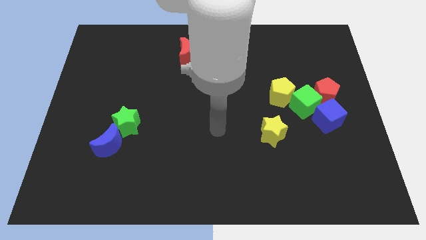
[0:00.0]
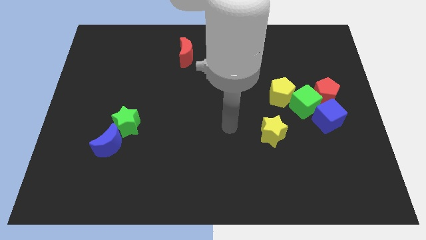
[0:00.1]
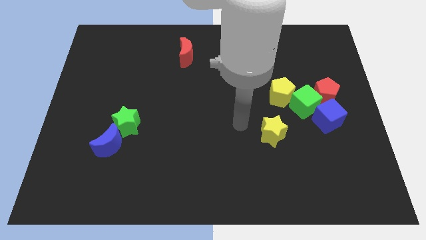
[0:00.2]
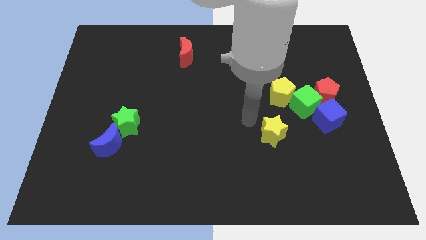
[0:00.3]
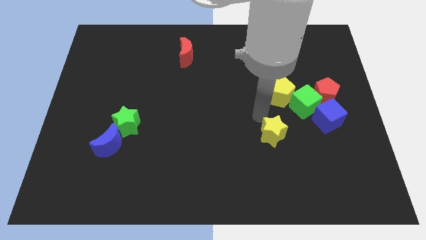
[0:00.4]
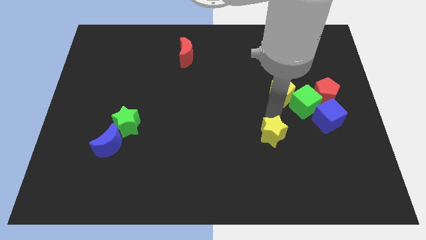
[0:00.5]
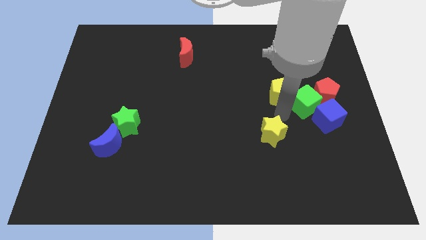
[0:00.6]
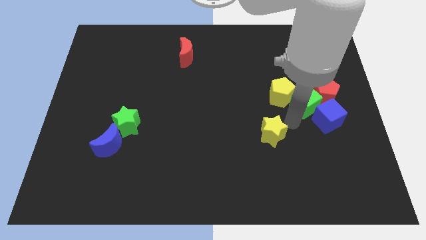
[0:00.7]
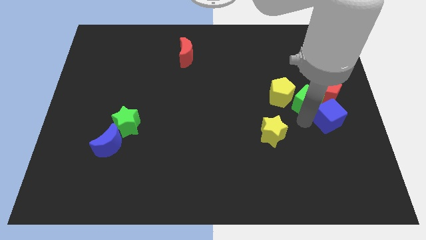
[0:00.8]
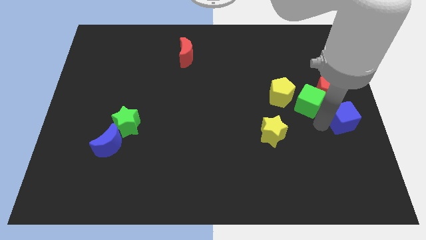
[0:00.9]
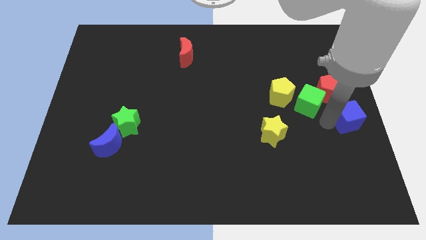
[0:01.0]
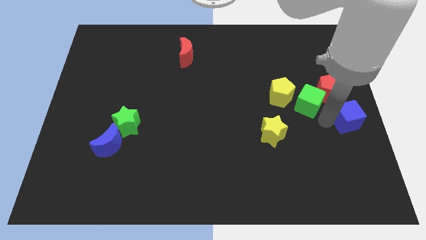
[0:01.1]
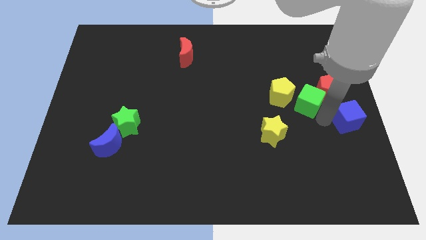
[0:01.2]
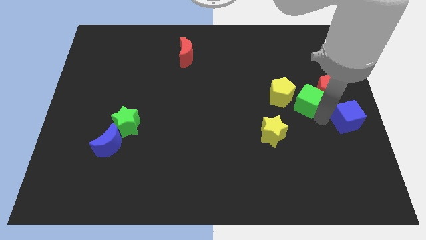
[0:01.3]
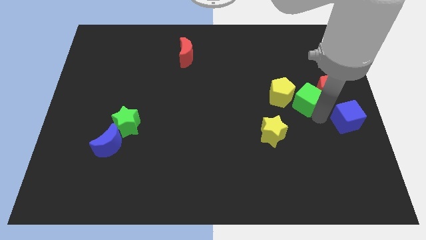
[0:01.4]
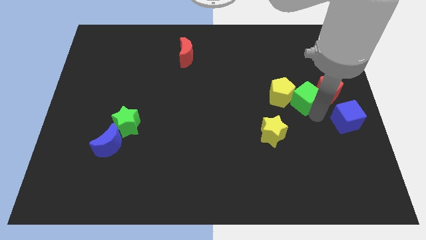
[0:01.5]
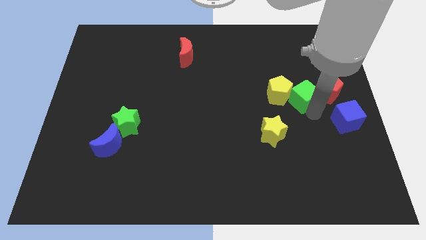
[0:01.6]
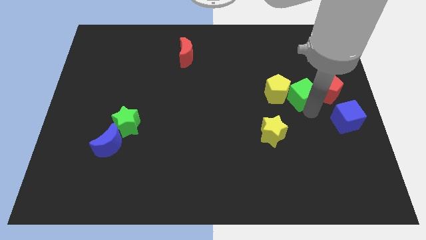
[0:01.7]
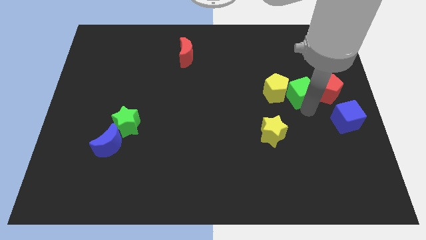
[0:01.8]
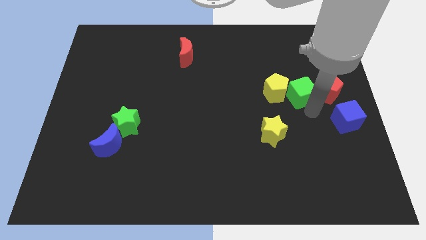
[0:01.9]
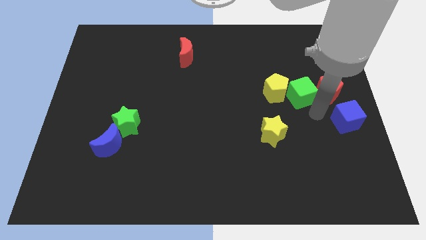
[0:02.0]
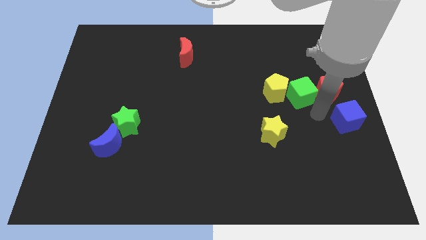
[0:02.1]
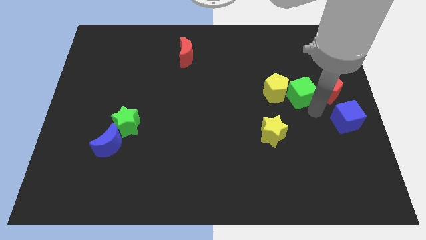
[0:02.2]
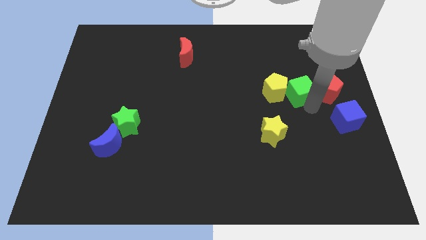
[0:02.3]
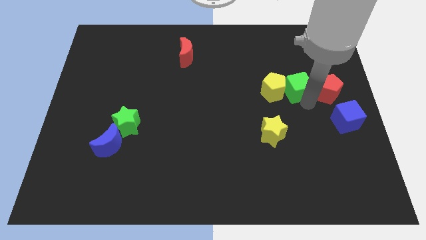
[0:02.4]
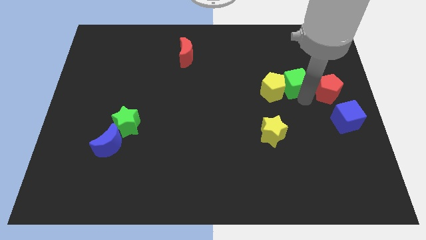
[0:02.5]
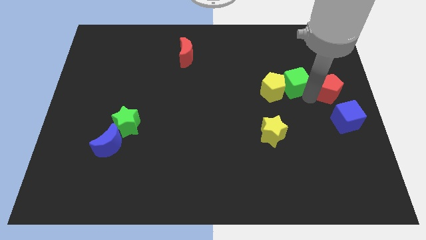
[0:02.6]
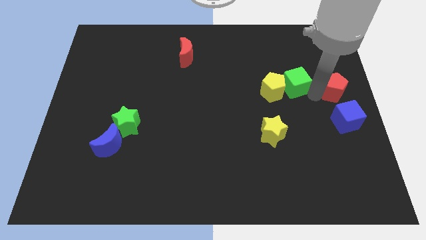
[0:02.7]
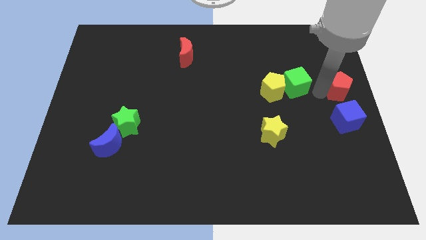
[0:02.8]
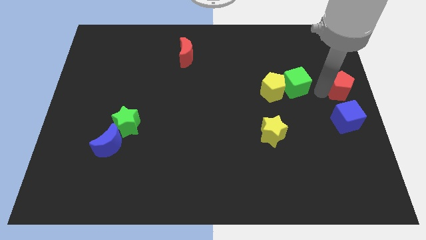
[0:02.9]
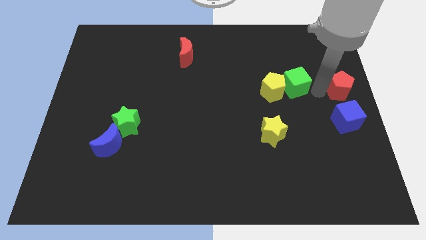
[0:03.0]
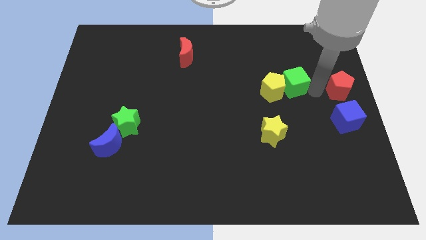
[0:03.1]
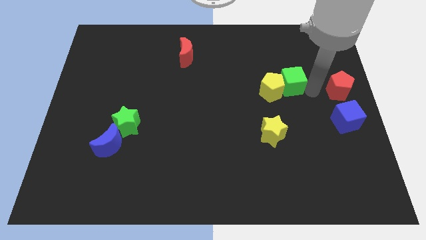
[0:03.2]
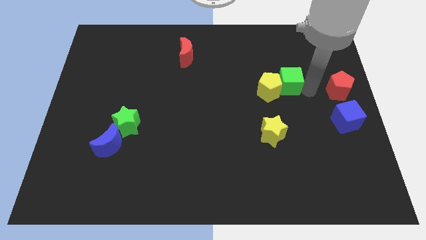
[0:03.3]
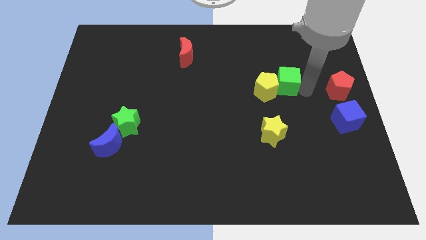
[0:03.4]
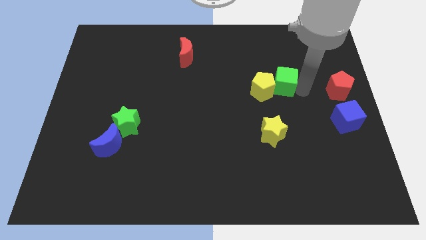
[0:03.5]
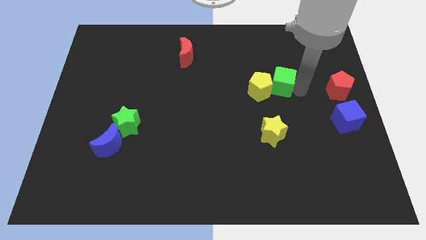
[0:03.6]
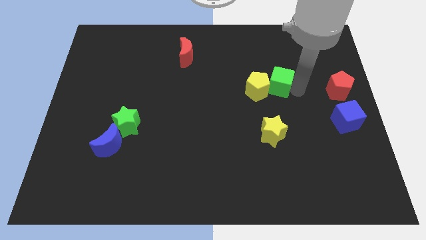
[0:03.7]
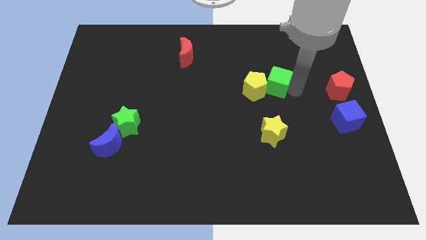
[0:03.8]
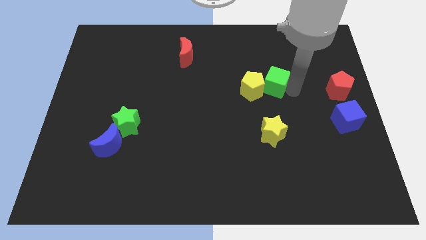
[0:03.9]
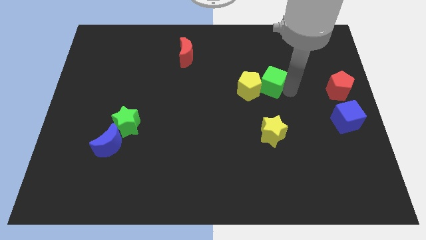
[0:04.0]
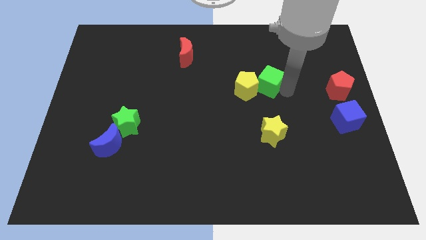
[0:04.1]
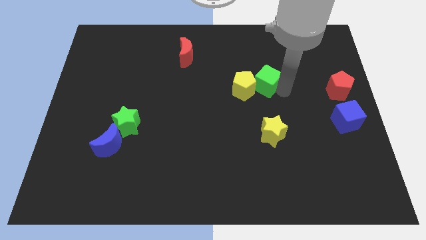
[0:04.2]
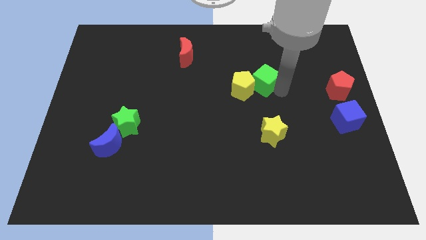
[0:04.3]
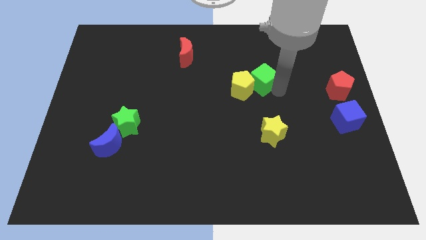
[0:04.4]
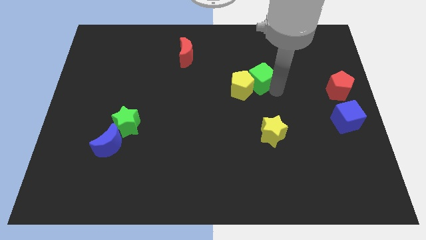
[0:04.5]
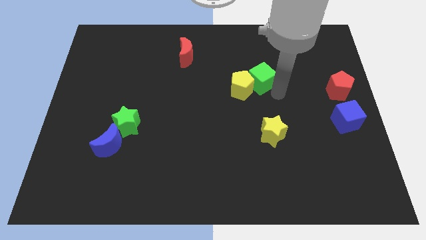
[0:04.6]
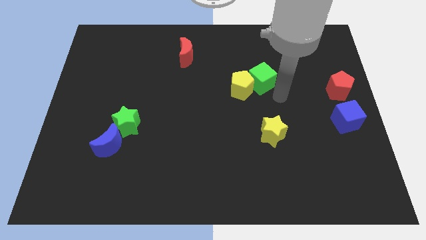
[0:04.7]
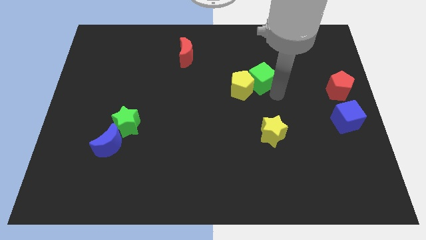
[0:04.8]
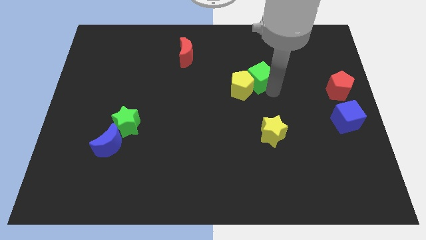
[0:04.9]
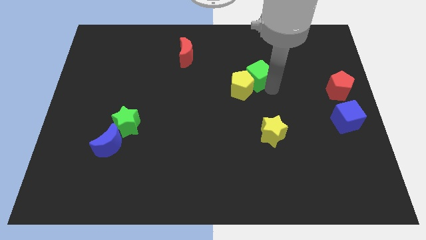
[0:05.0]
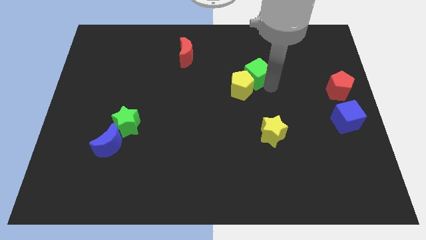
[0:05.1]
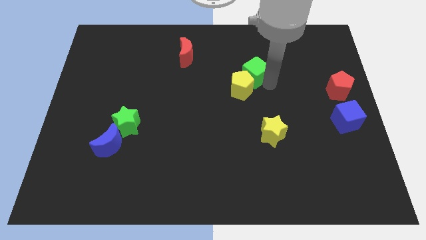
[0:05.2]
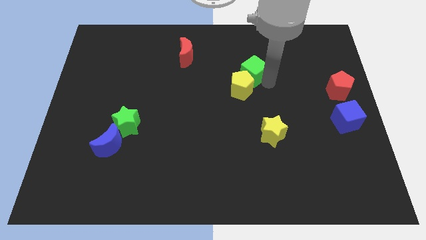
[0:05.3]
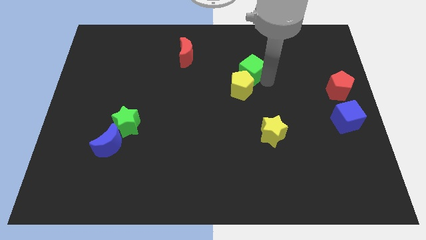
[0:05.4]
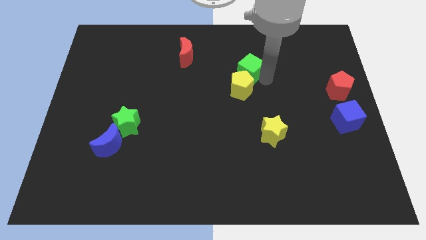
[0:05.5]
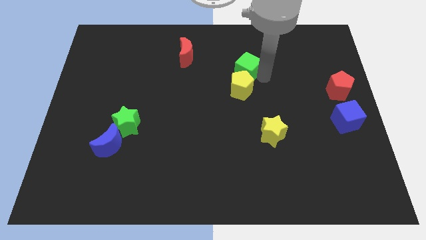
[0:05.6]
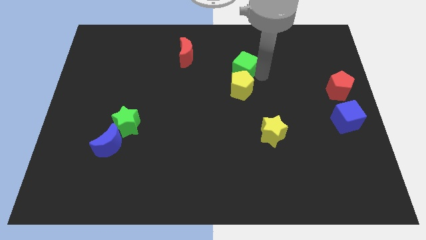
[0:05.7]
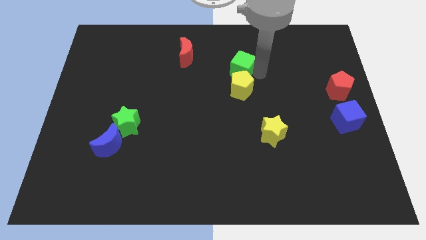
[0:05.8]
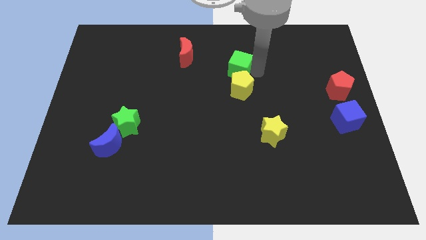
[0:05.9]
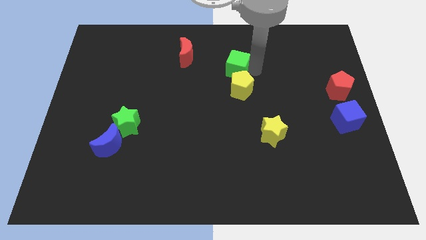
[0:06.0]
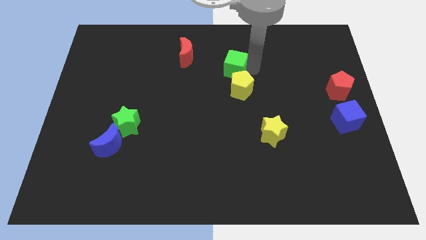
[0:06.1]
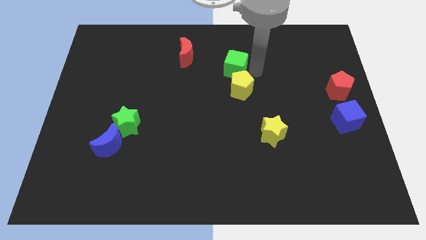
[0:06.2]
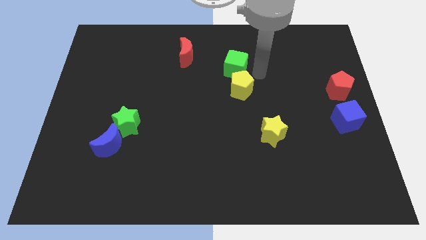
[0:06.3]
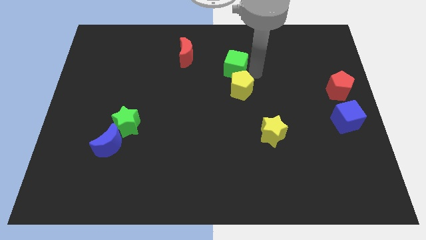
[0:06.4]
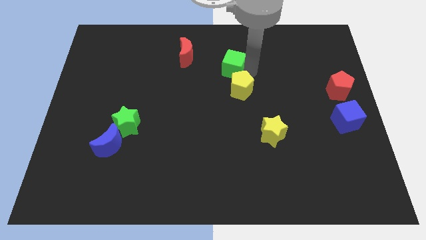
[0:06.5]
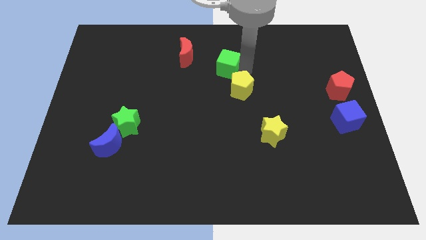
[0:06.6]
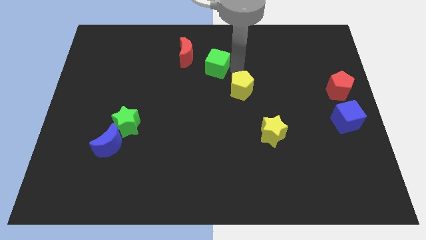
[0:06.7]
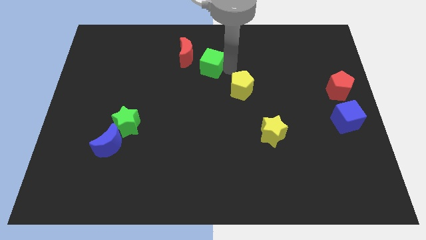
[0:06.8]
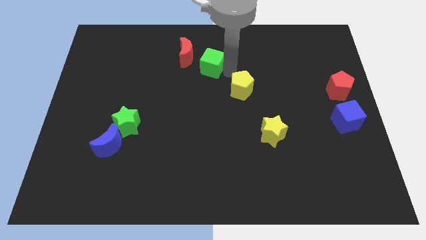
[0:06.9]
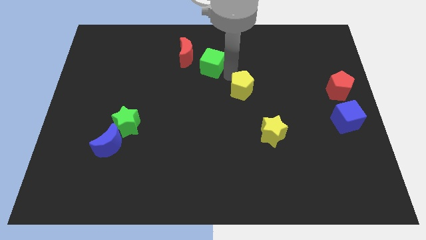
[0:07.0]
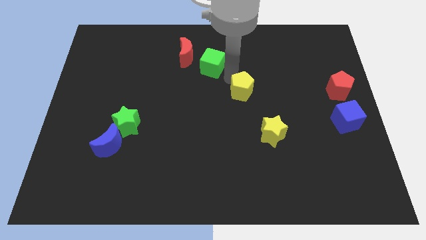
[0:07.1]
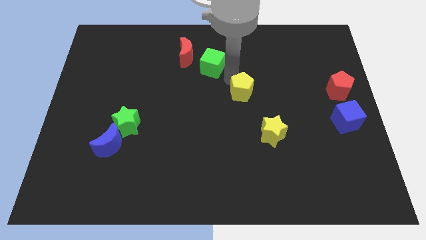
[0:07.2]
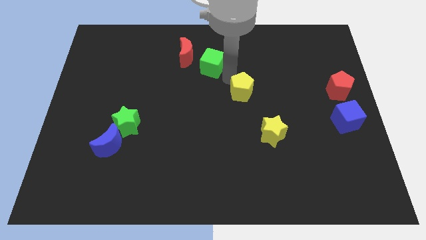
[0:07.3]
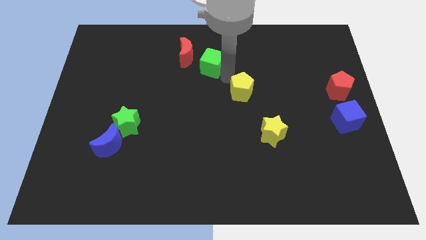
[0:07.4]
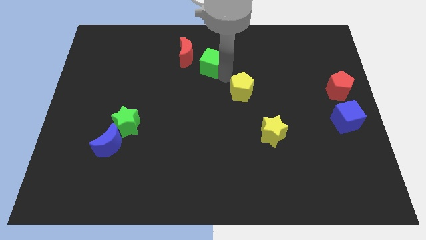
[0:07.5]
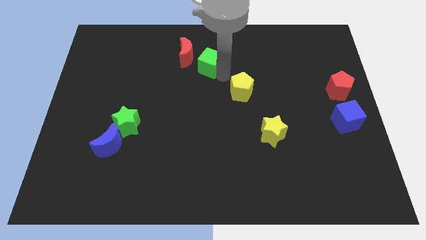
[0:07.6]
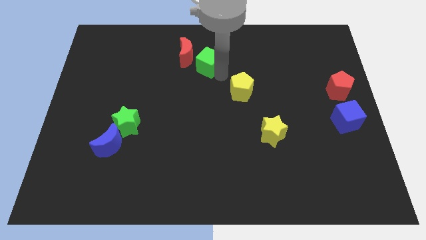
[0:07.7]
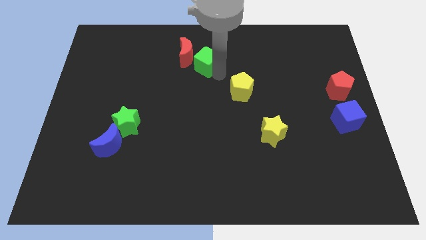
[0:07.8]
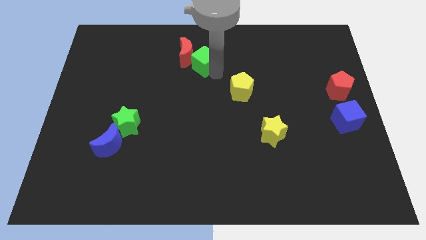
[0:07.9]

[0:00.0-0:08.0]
slide the green cube towards the red moon
